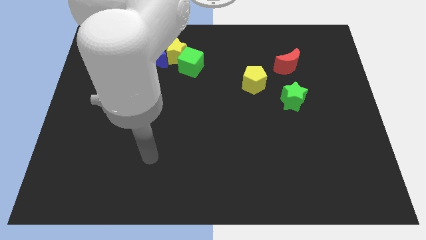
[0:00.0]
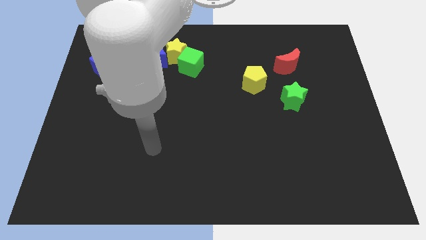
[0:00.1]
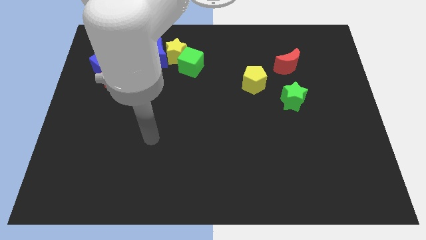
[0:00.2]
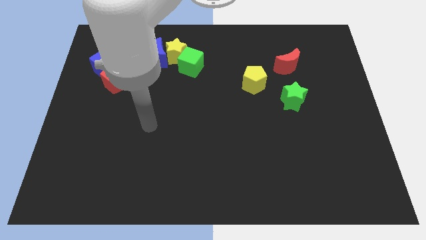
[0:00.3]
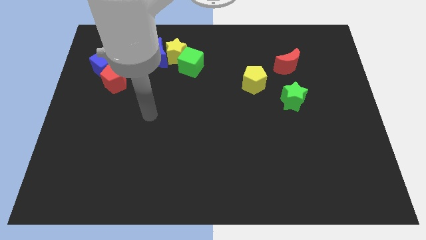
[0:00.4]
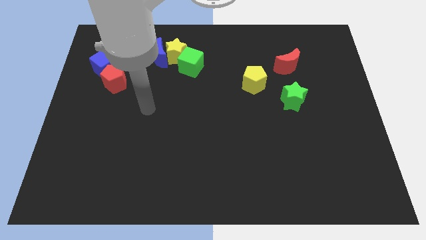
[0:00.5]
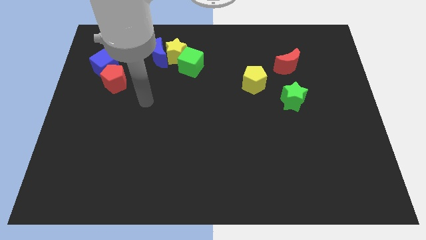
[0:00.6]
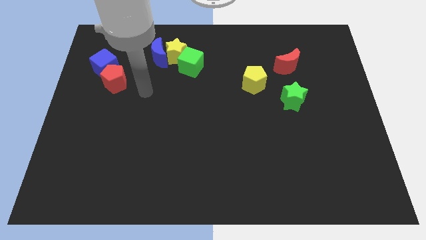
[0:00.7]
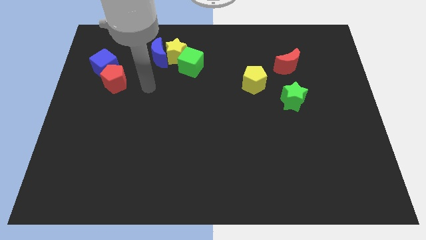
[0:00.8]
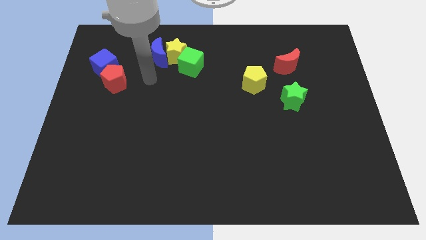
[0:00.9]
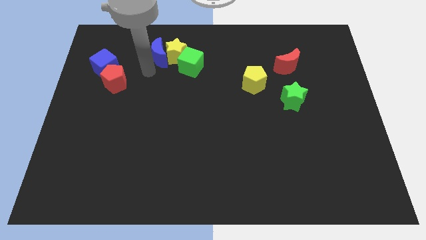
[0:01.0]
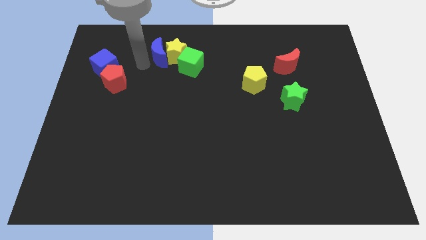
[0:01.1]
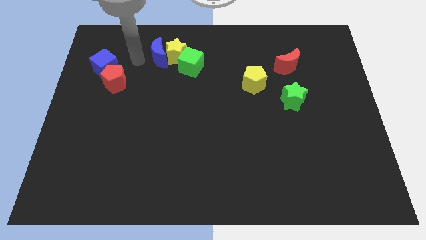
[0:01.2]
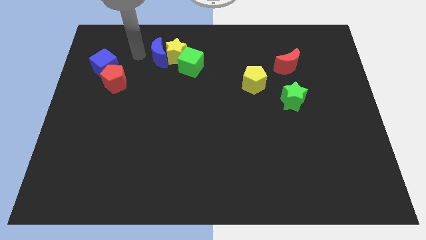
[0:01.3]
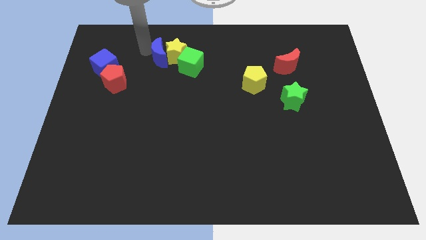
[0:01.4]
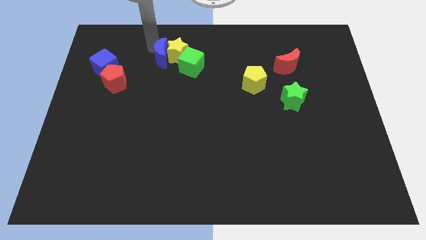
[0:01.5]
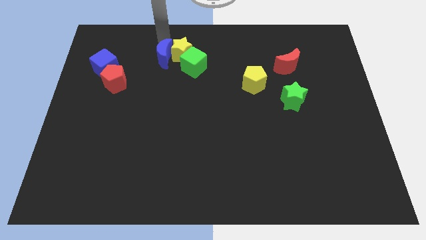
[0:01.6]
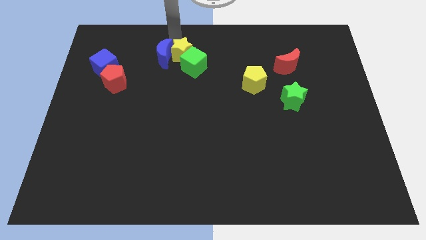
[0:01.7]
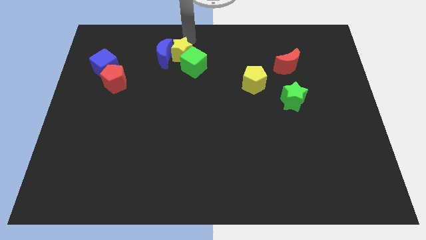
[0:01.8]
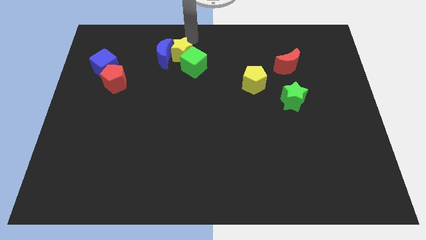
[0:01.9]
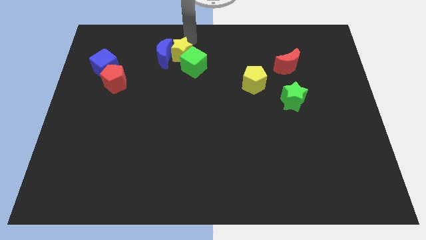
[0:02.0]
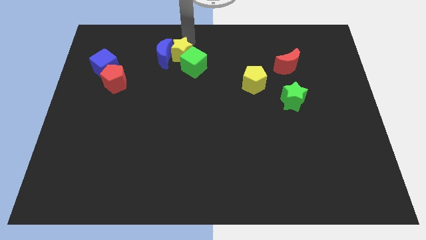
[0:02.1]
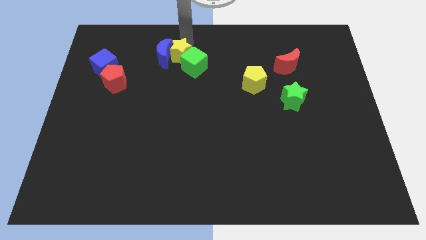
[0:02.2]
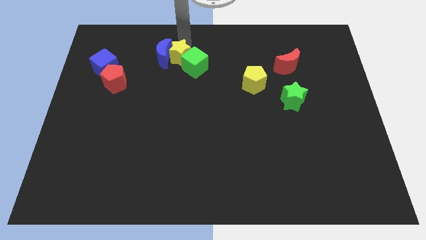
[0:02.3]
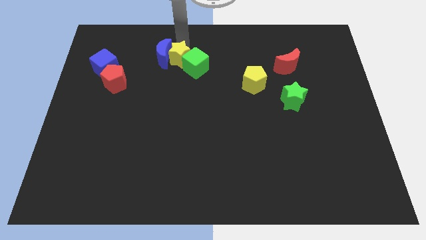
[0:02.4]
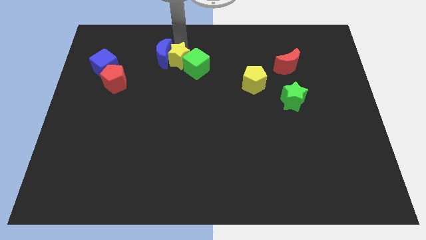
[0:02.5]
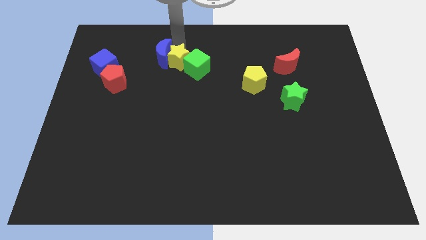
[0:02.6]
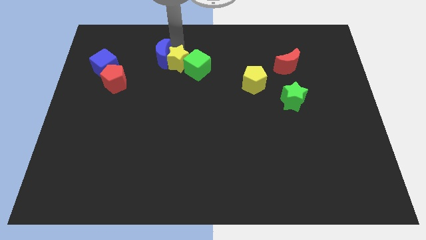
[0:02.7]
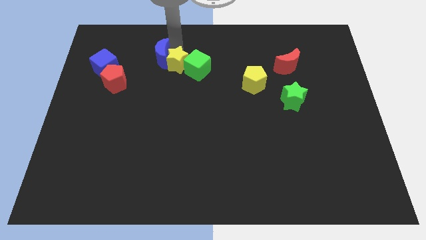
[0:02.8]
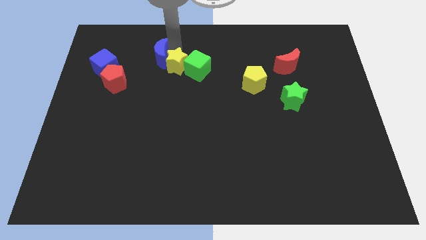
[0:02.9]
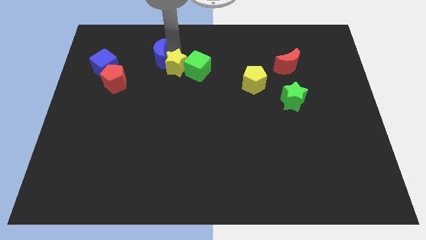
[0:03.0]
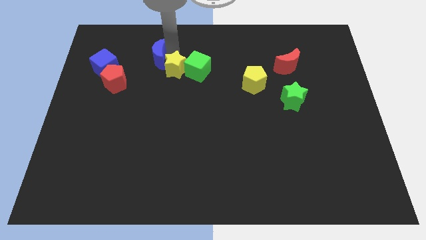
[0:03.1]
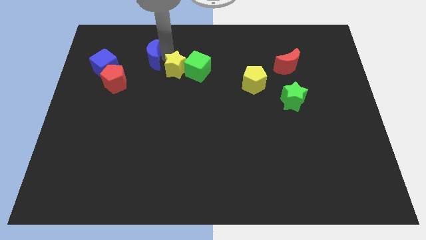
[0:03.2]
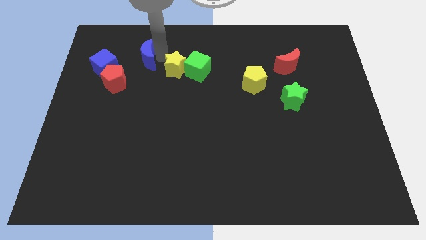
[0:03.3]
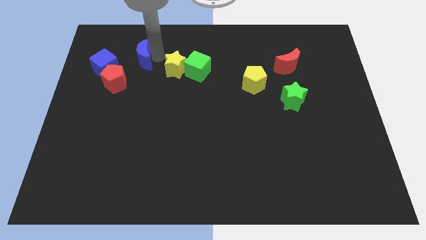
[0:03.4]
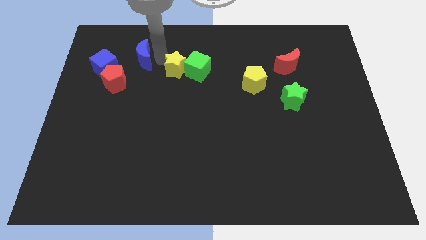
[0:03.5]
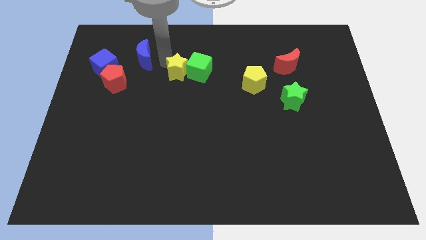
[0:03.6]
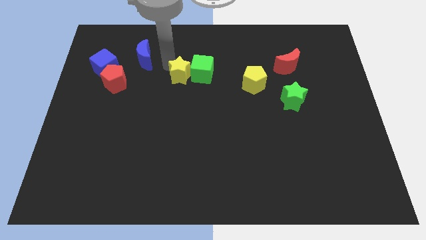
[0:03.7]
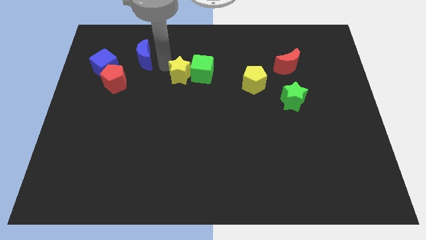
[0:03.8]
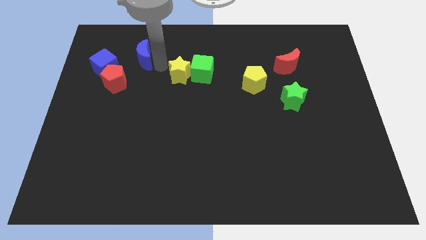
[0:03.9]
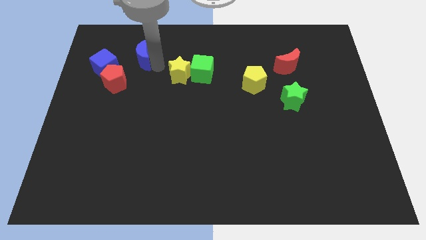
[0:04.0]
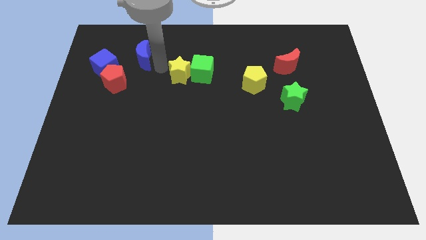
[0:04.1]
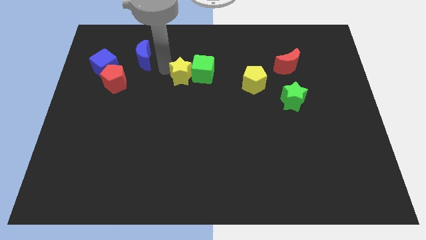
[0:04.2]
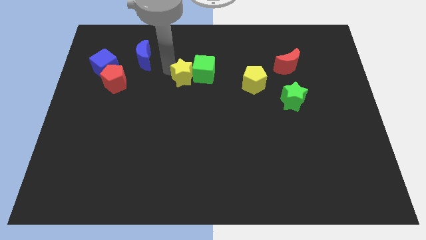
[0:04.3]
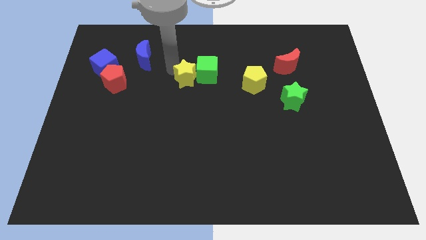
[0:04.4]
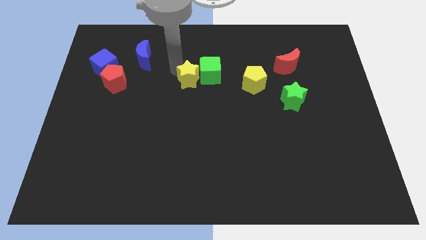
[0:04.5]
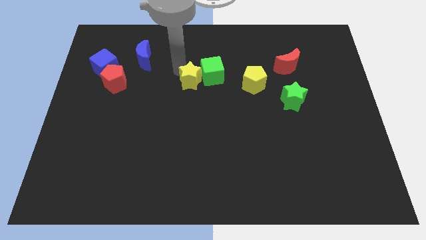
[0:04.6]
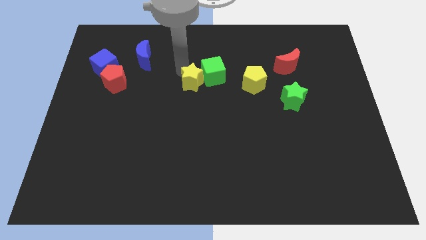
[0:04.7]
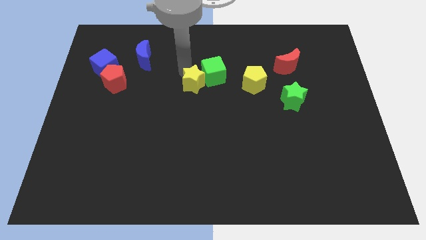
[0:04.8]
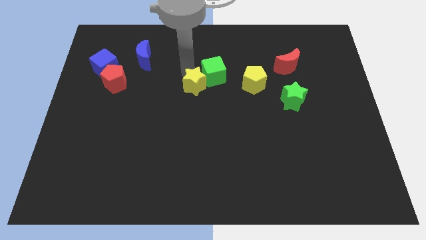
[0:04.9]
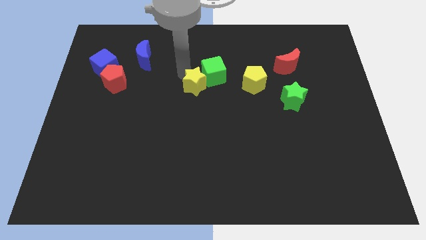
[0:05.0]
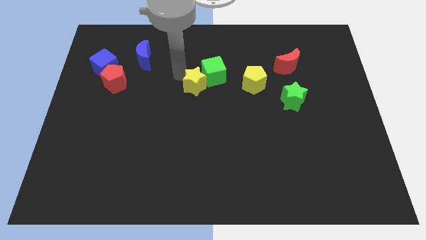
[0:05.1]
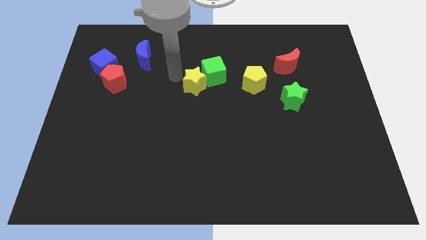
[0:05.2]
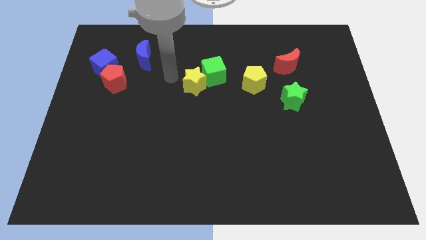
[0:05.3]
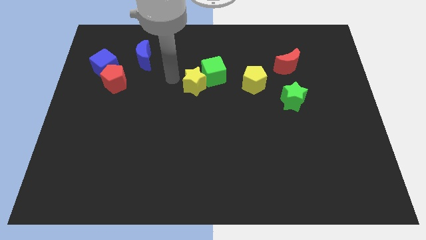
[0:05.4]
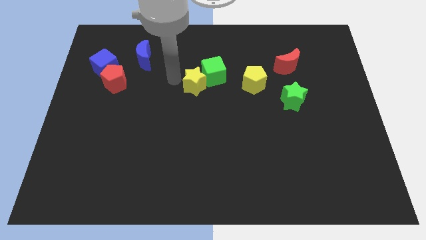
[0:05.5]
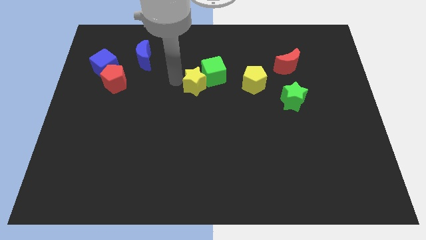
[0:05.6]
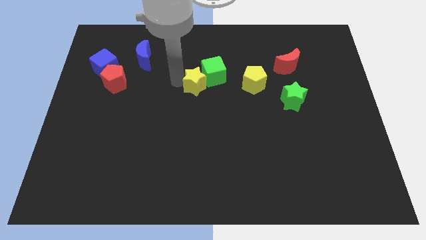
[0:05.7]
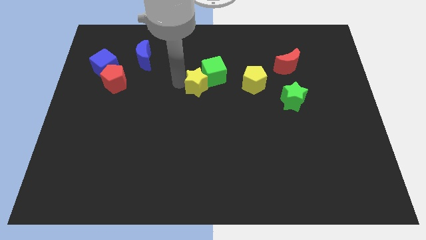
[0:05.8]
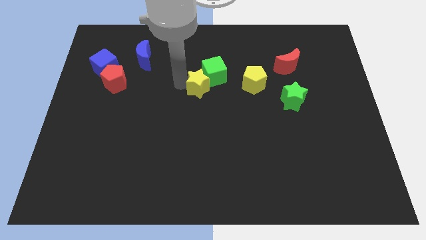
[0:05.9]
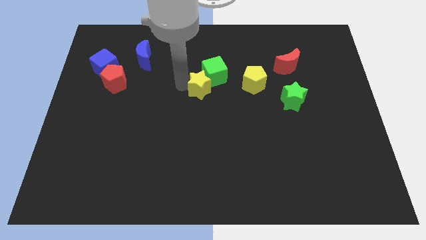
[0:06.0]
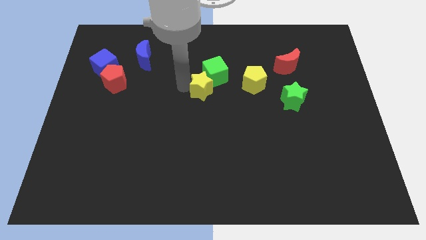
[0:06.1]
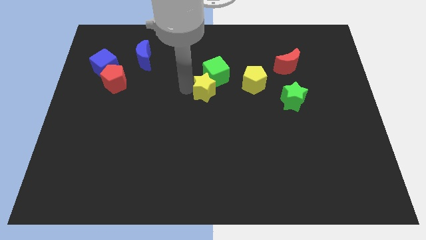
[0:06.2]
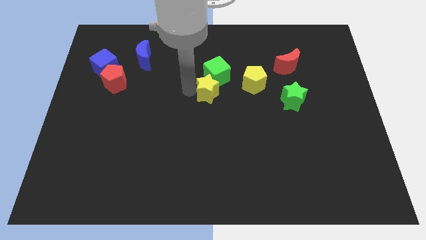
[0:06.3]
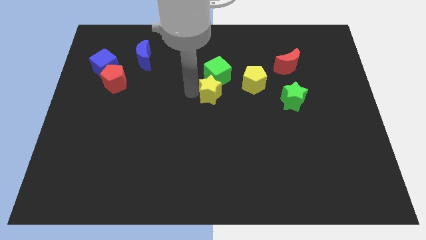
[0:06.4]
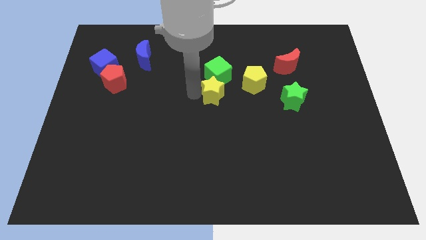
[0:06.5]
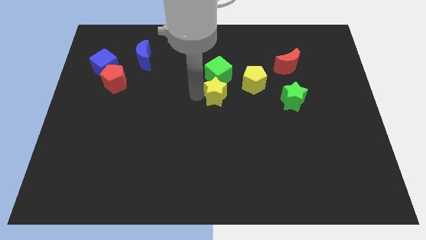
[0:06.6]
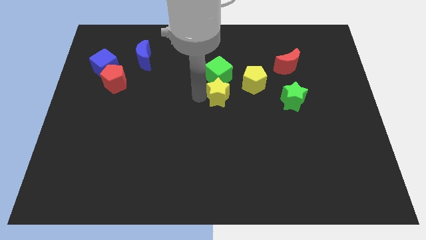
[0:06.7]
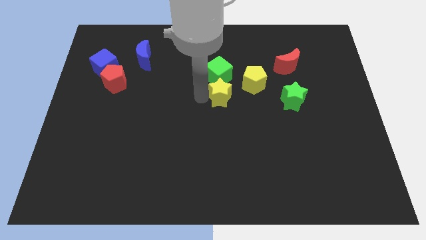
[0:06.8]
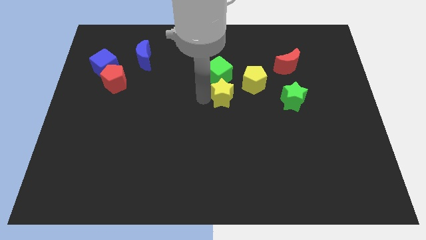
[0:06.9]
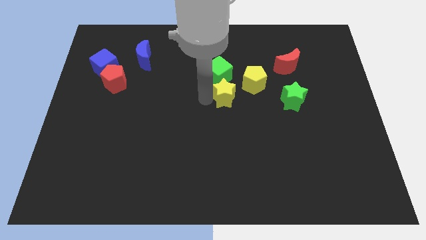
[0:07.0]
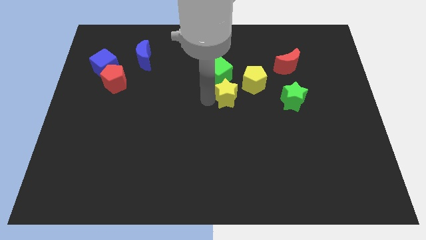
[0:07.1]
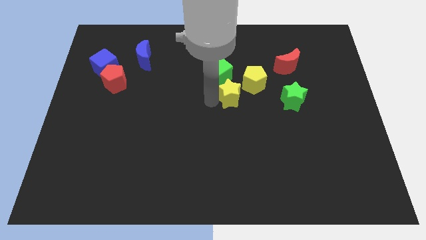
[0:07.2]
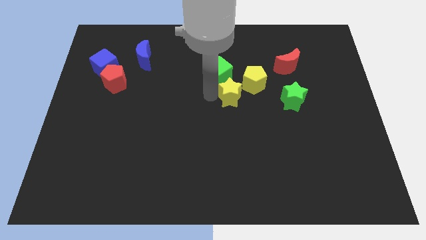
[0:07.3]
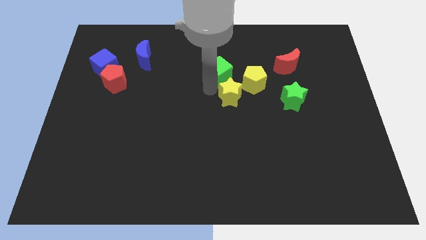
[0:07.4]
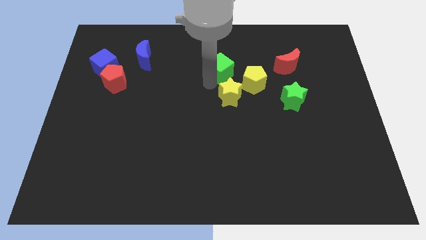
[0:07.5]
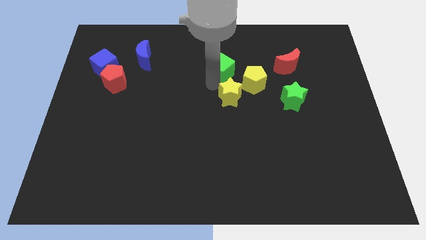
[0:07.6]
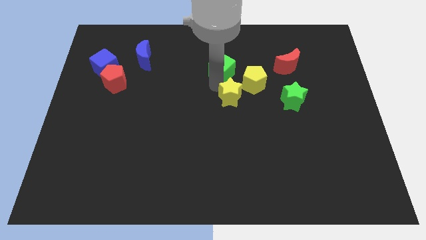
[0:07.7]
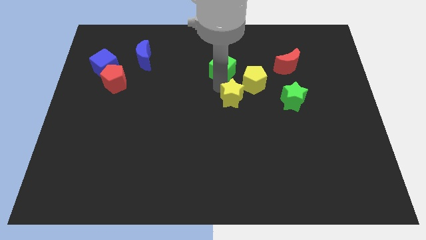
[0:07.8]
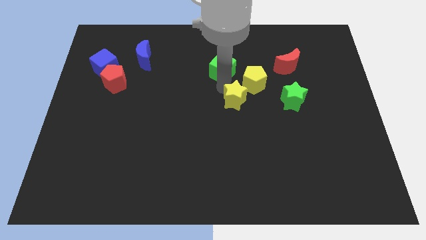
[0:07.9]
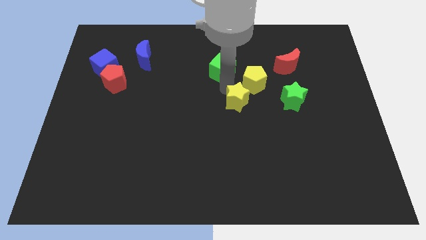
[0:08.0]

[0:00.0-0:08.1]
move the yellow star to the bottom of the yellow pentagon
